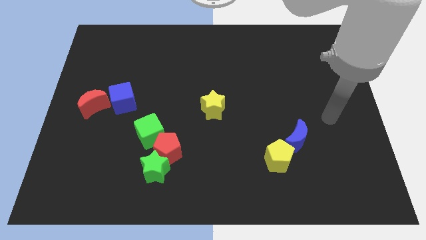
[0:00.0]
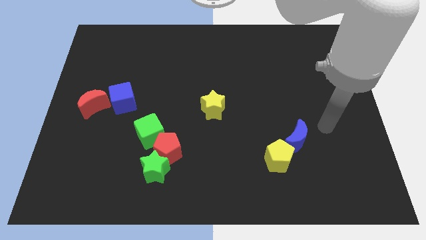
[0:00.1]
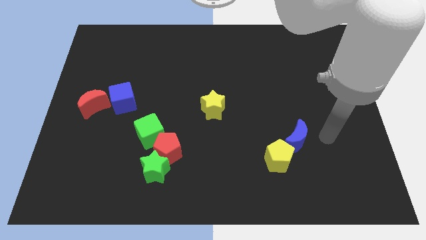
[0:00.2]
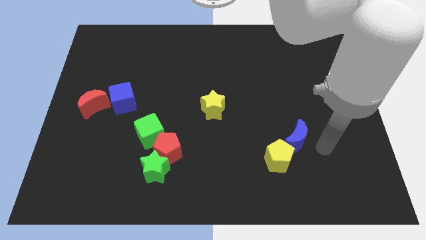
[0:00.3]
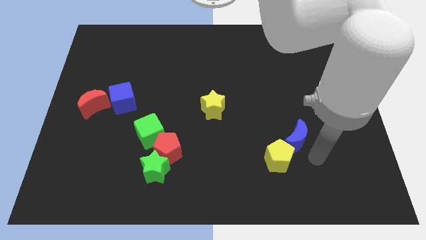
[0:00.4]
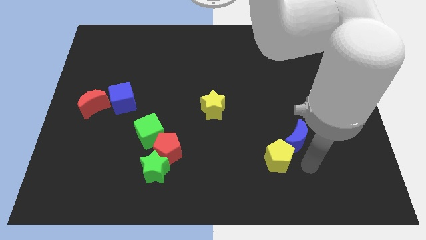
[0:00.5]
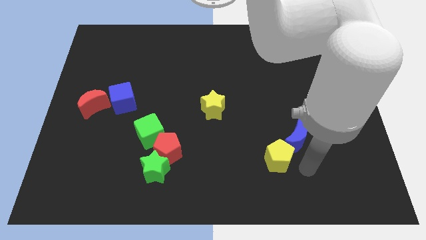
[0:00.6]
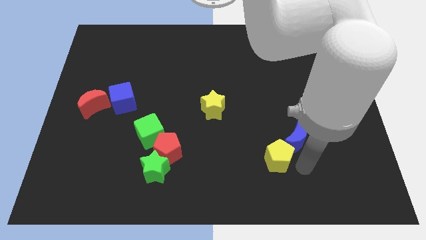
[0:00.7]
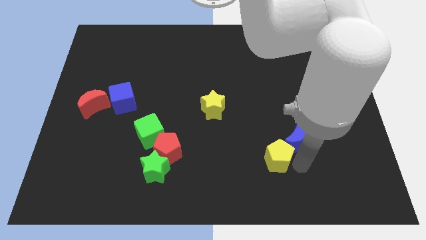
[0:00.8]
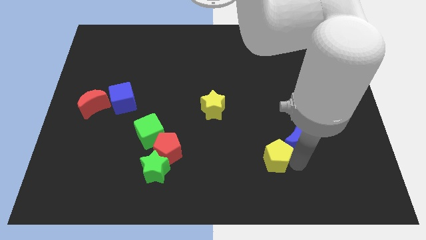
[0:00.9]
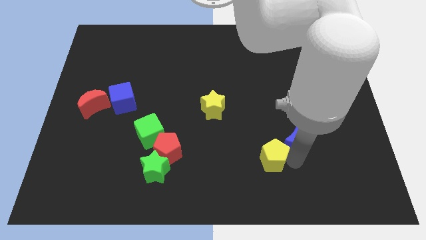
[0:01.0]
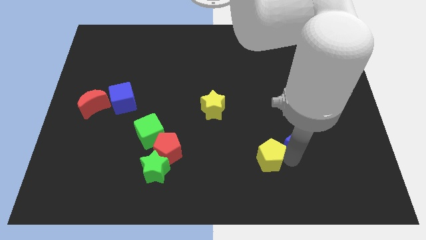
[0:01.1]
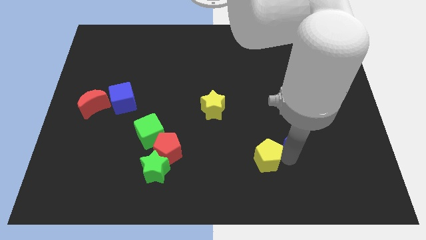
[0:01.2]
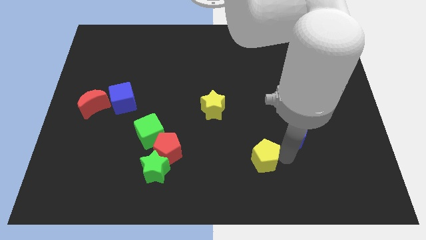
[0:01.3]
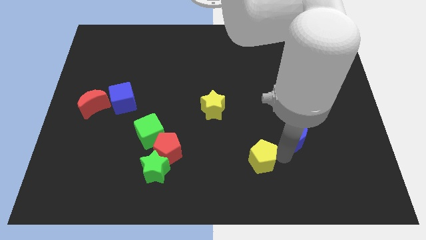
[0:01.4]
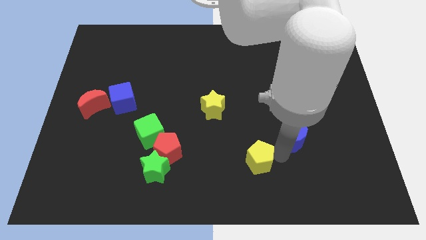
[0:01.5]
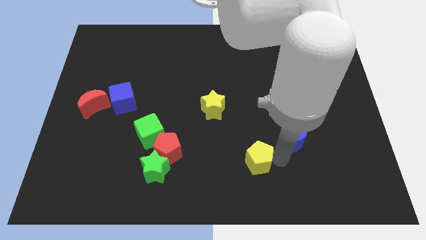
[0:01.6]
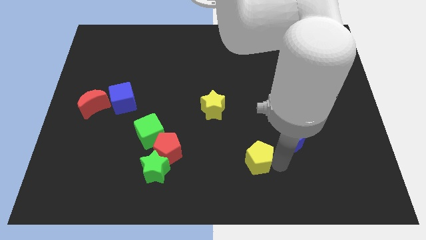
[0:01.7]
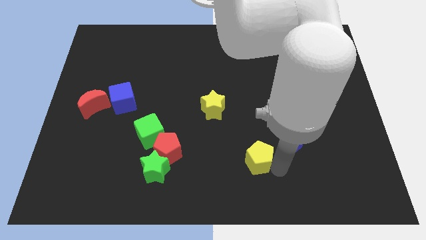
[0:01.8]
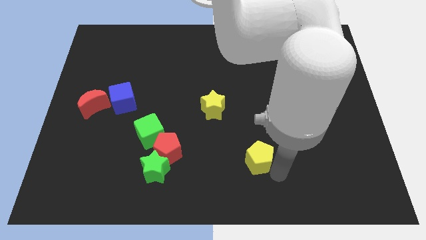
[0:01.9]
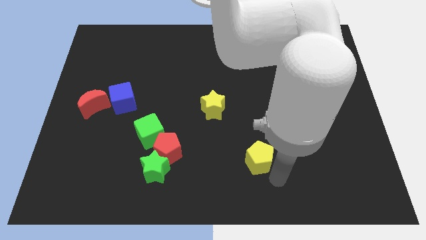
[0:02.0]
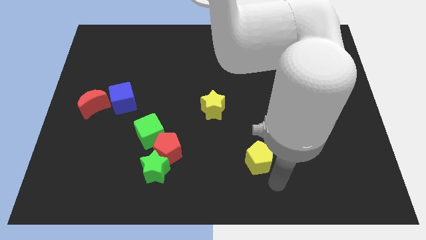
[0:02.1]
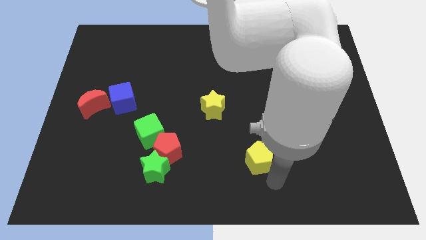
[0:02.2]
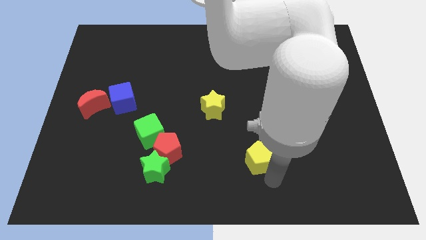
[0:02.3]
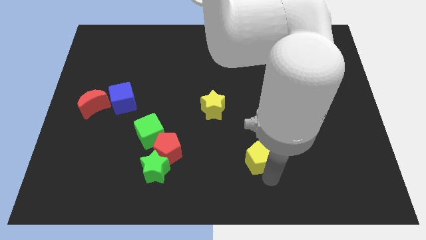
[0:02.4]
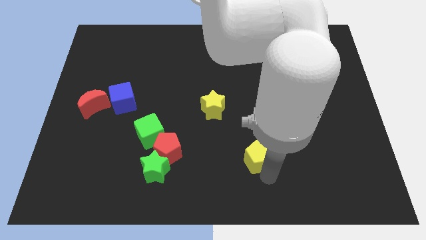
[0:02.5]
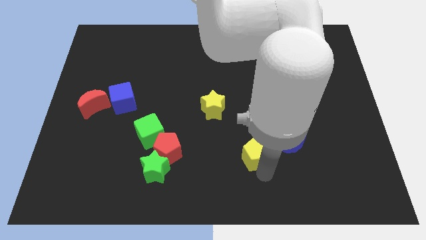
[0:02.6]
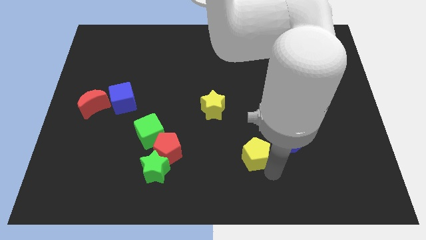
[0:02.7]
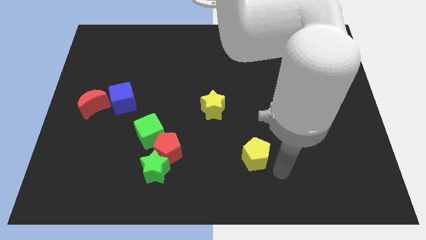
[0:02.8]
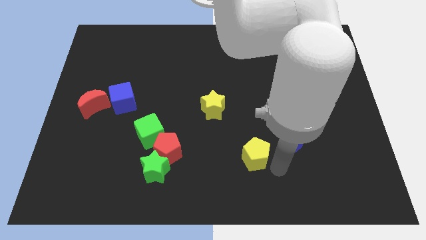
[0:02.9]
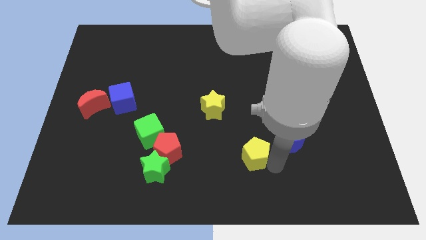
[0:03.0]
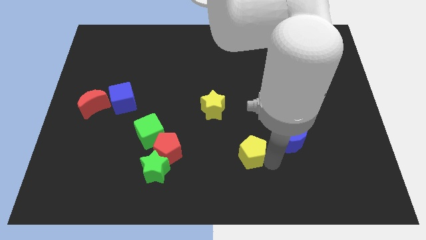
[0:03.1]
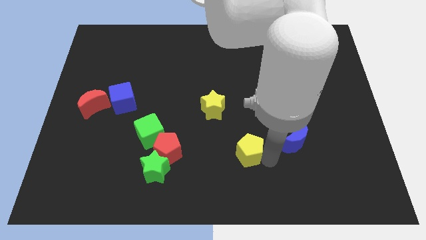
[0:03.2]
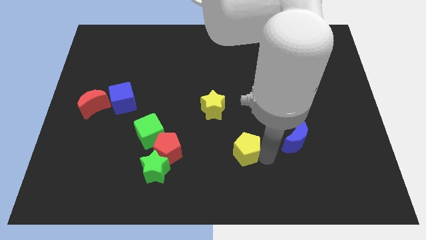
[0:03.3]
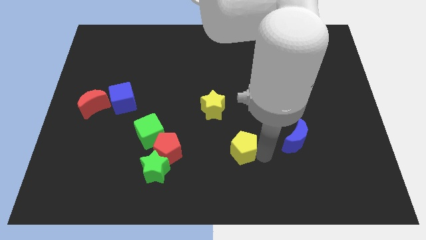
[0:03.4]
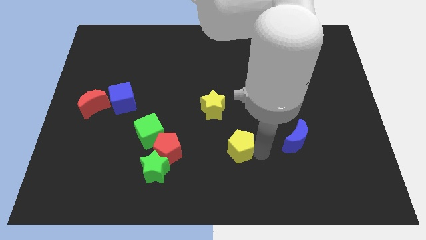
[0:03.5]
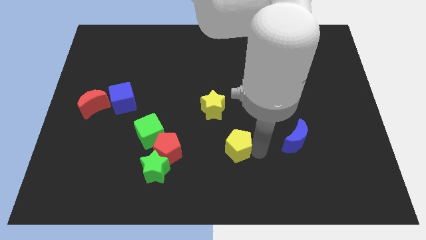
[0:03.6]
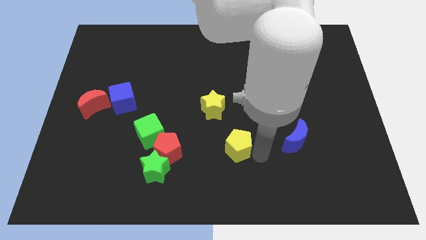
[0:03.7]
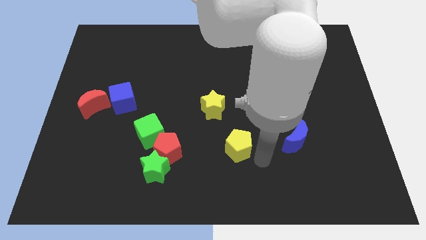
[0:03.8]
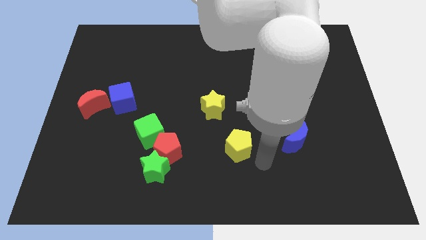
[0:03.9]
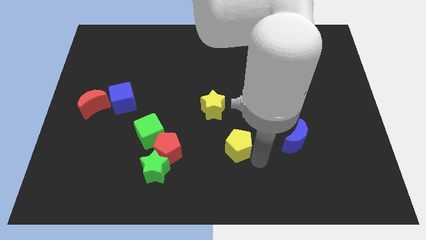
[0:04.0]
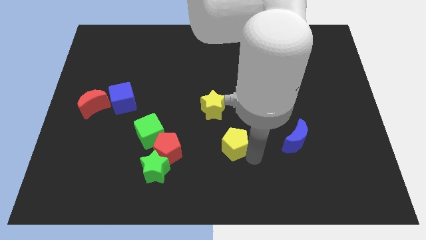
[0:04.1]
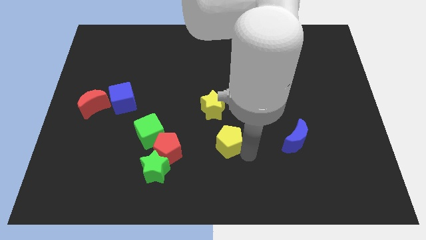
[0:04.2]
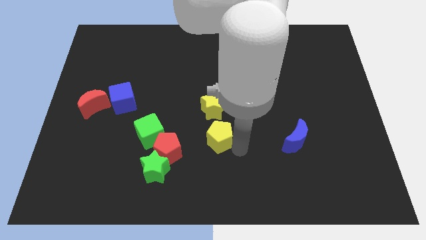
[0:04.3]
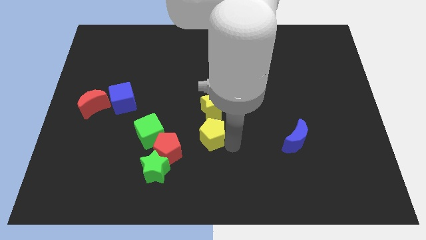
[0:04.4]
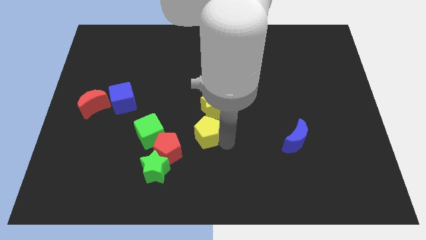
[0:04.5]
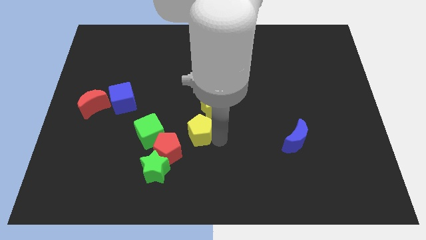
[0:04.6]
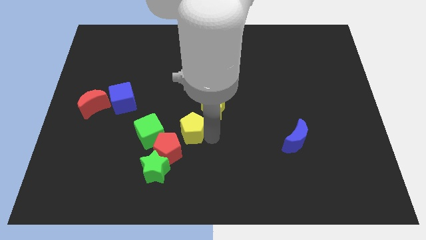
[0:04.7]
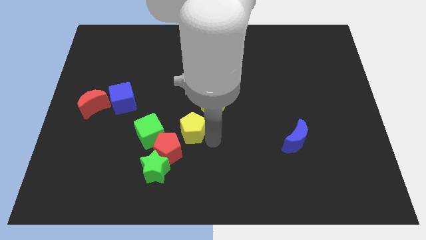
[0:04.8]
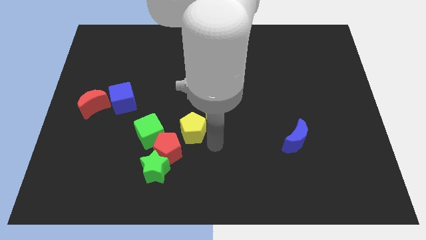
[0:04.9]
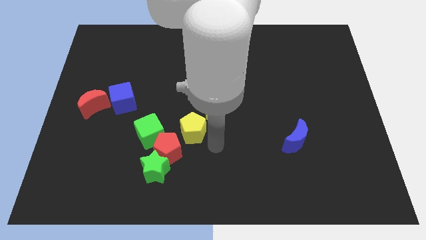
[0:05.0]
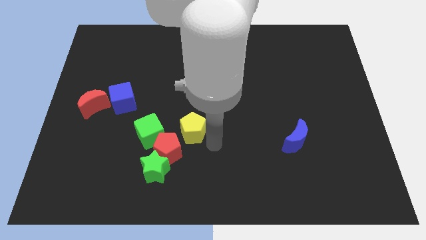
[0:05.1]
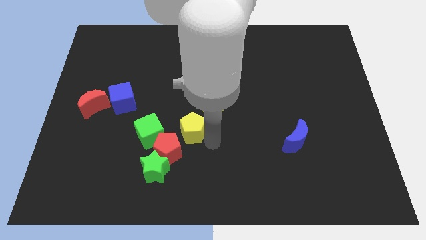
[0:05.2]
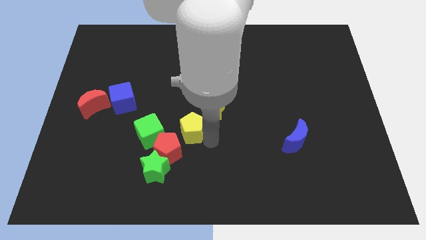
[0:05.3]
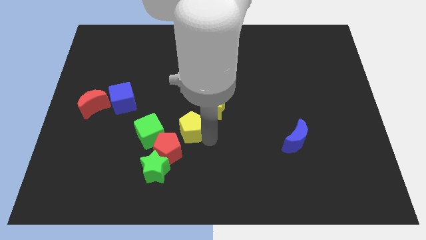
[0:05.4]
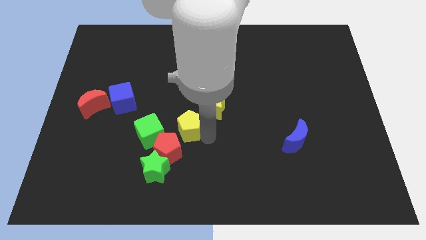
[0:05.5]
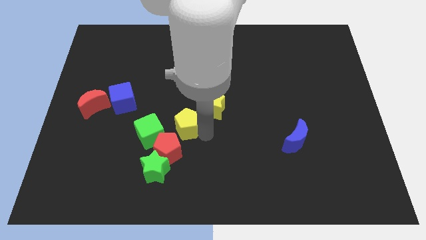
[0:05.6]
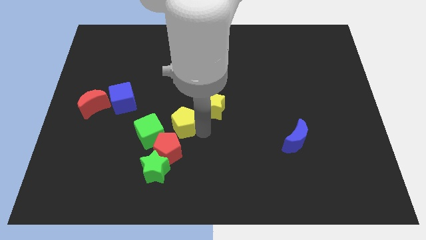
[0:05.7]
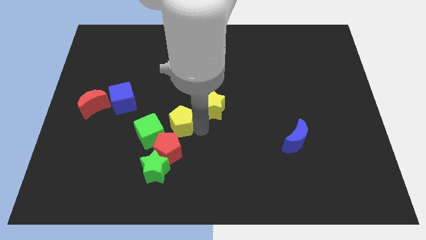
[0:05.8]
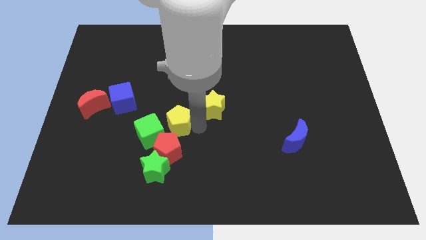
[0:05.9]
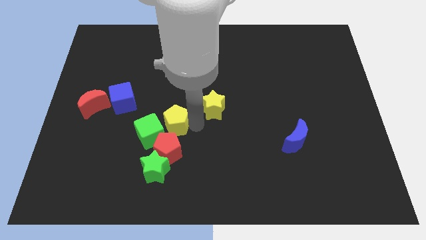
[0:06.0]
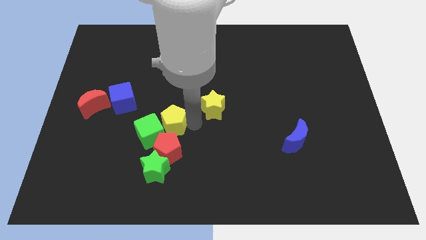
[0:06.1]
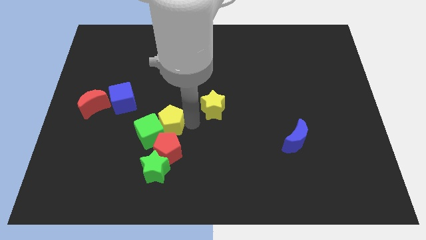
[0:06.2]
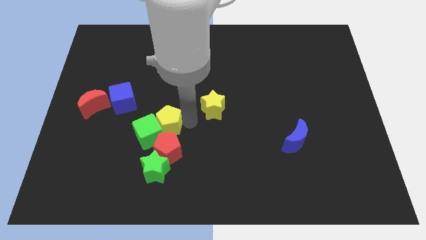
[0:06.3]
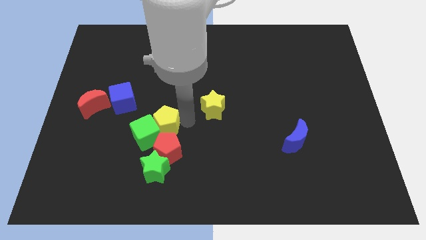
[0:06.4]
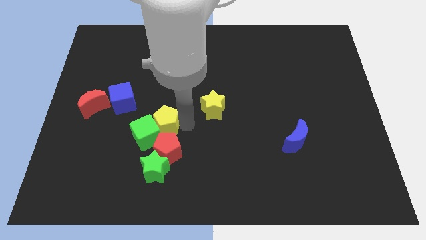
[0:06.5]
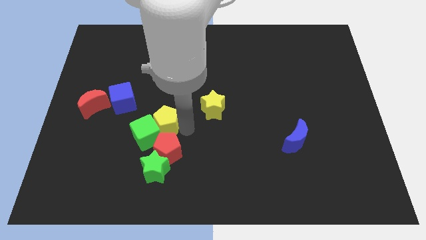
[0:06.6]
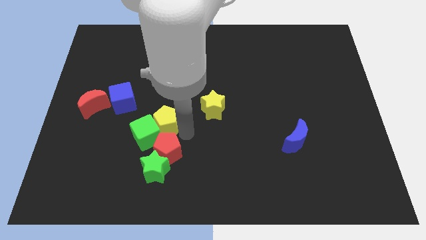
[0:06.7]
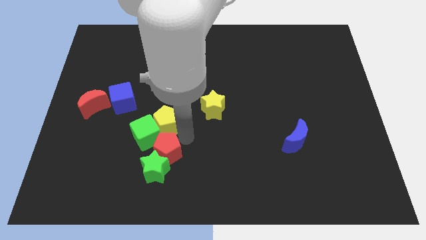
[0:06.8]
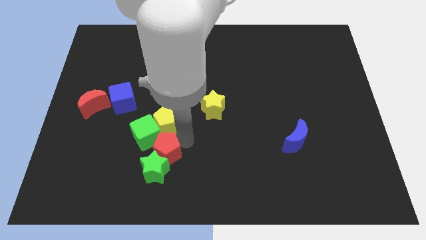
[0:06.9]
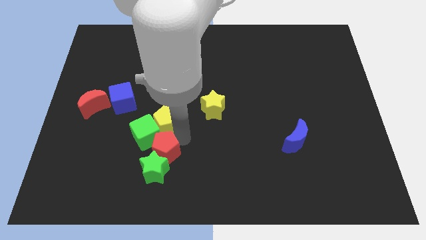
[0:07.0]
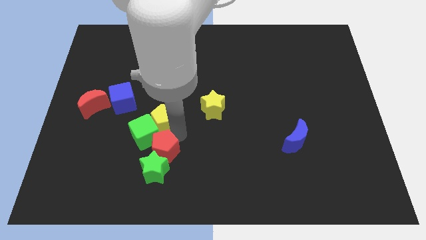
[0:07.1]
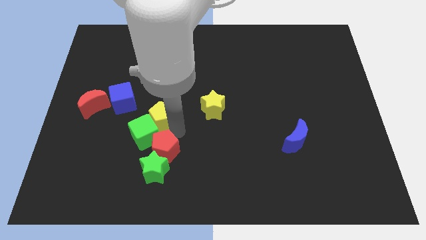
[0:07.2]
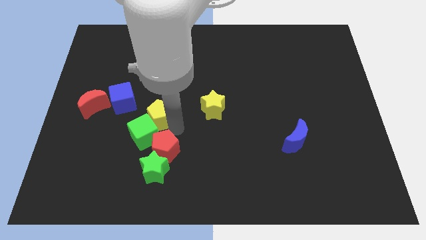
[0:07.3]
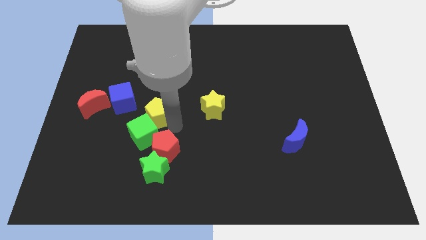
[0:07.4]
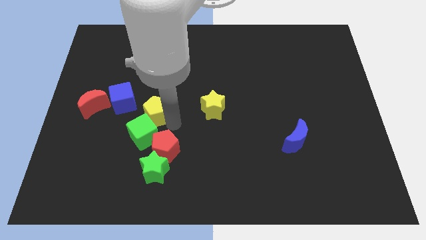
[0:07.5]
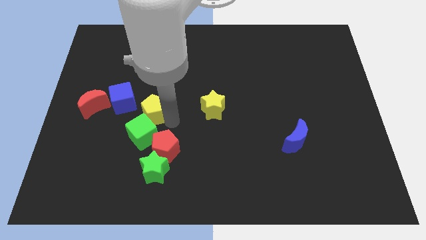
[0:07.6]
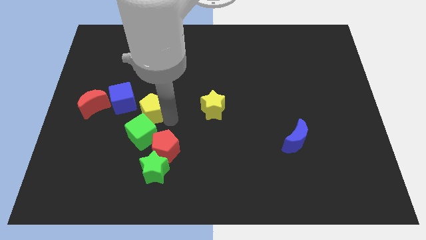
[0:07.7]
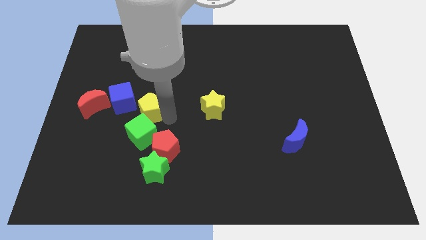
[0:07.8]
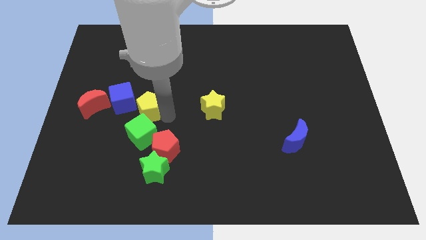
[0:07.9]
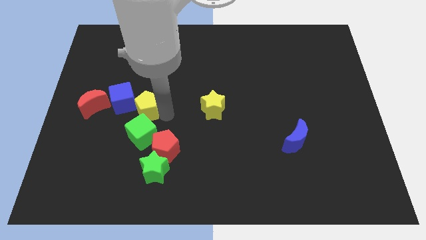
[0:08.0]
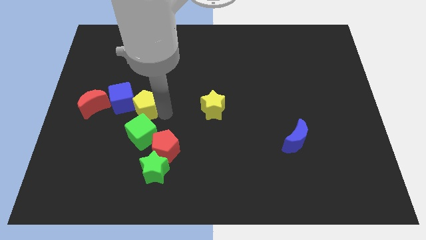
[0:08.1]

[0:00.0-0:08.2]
move the yellow pentagon towards the blue cube
